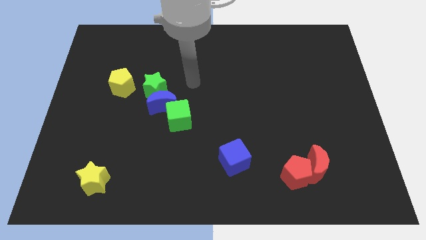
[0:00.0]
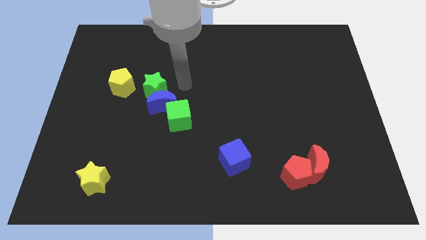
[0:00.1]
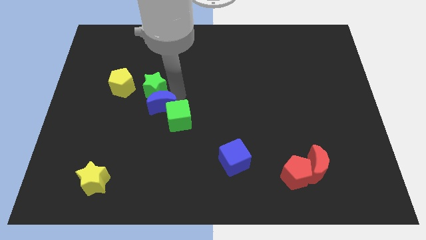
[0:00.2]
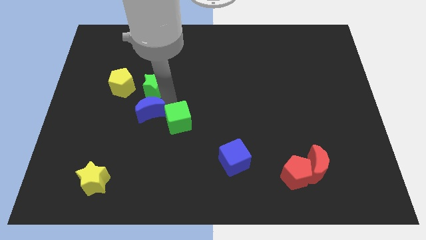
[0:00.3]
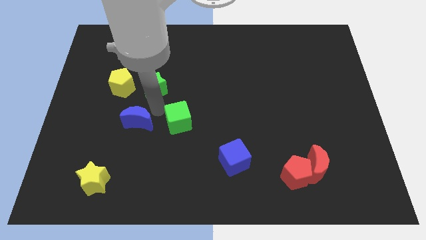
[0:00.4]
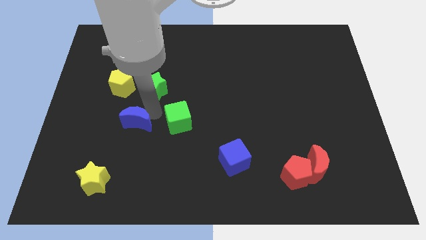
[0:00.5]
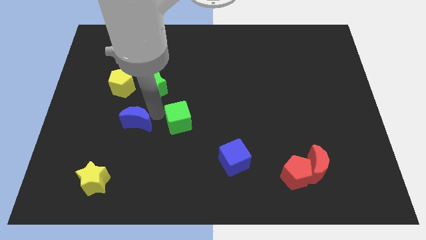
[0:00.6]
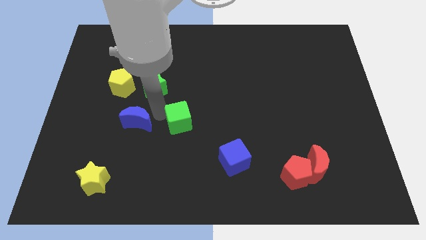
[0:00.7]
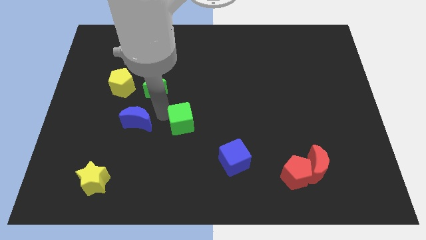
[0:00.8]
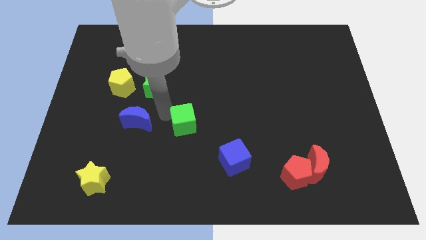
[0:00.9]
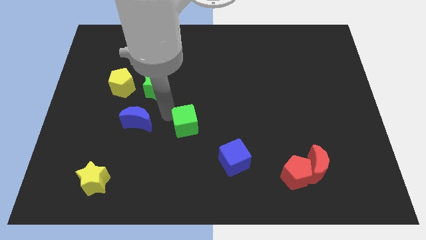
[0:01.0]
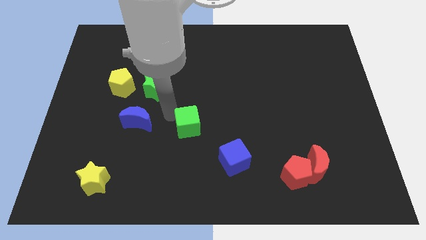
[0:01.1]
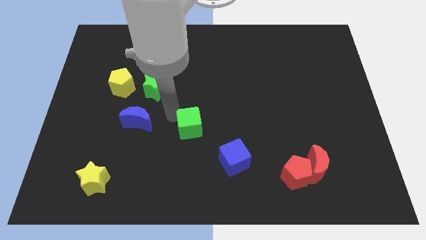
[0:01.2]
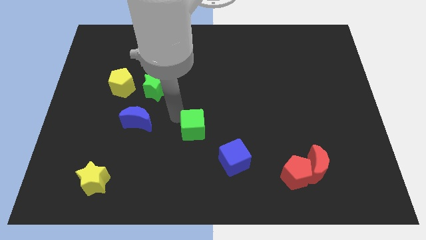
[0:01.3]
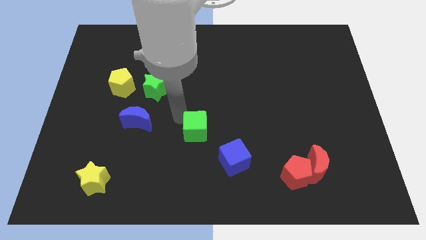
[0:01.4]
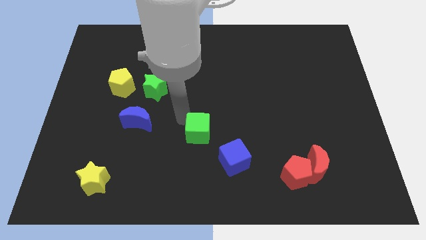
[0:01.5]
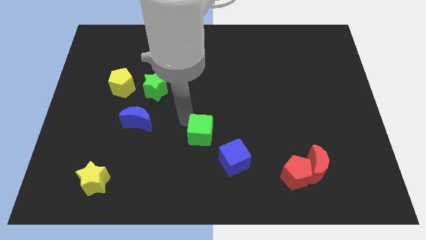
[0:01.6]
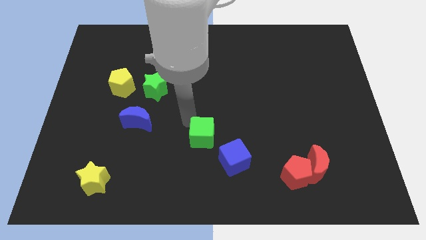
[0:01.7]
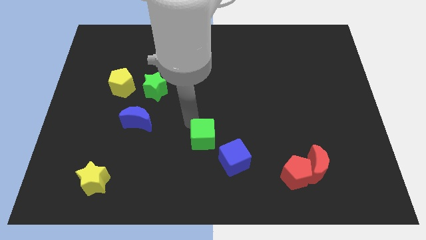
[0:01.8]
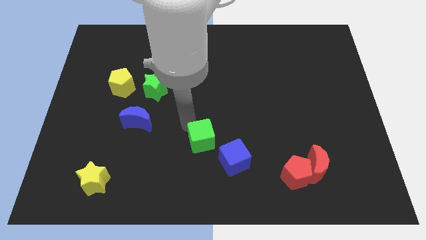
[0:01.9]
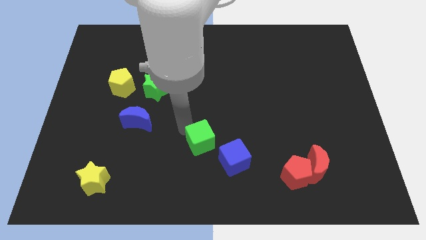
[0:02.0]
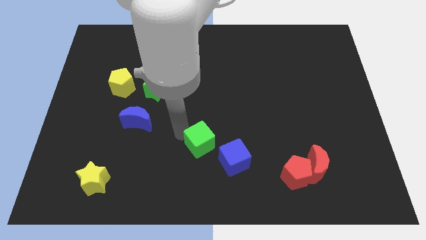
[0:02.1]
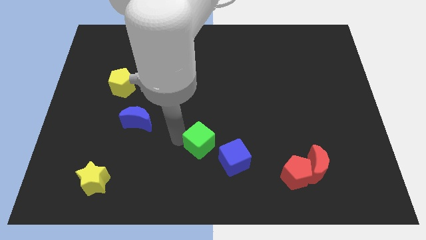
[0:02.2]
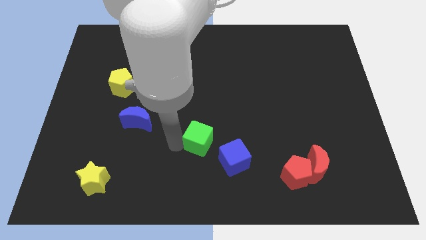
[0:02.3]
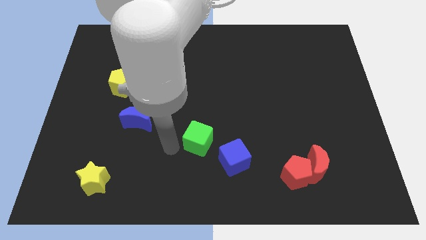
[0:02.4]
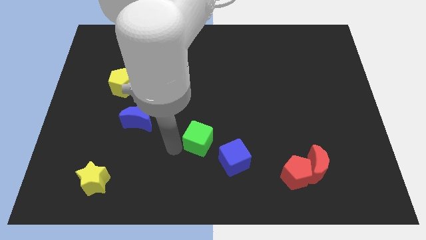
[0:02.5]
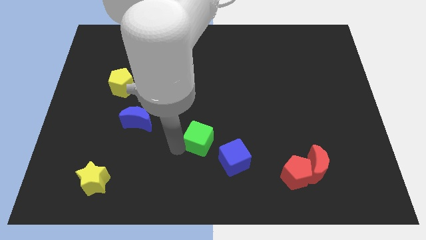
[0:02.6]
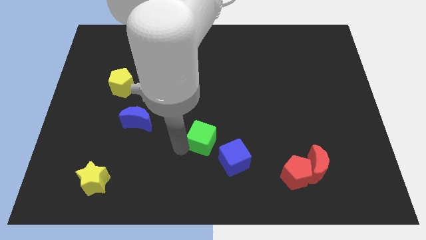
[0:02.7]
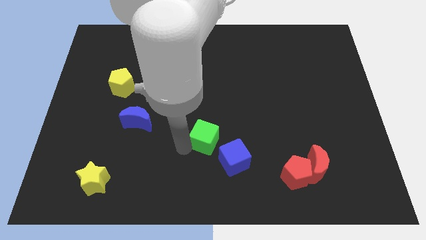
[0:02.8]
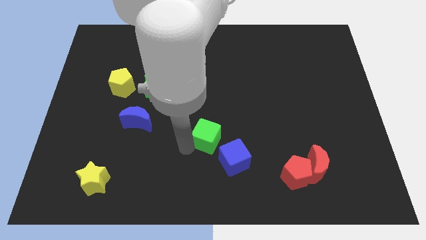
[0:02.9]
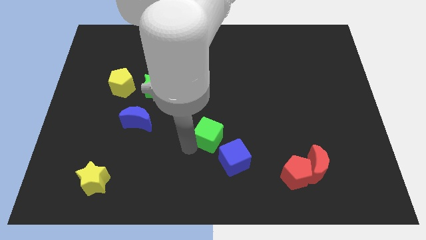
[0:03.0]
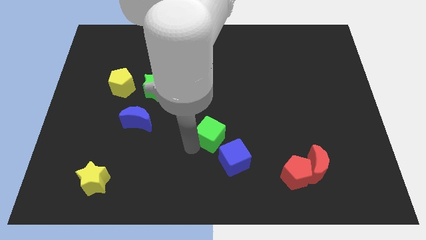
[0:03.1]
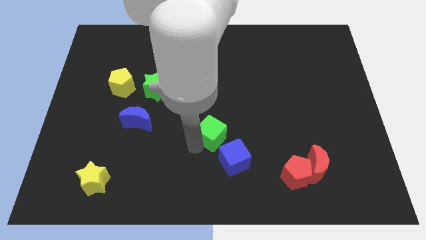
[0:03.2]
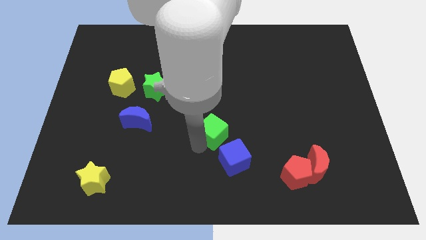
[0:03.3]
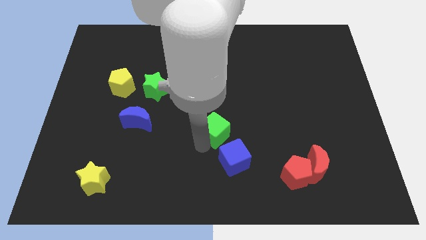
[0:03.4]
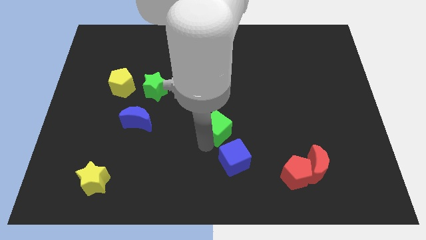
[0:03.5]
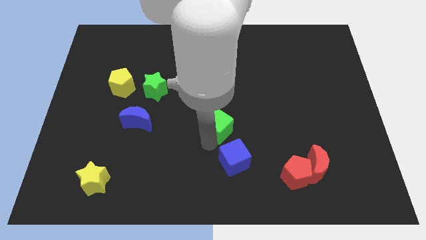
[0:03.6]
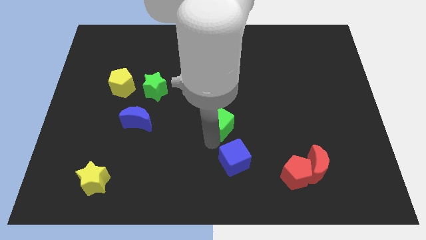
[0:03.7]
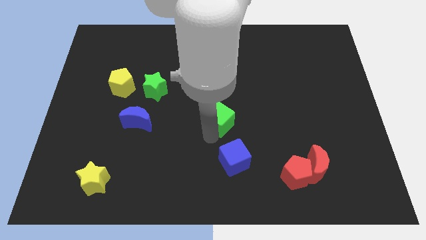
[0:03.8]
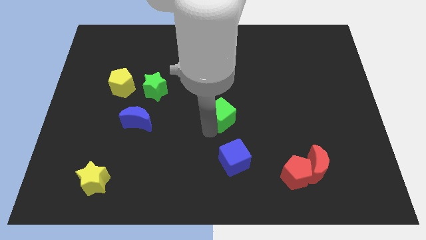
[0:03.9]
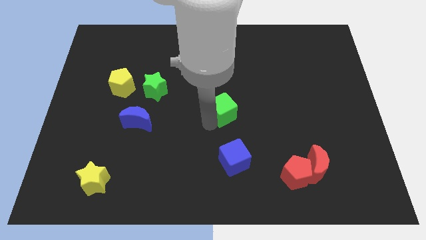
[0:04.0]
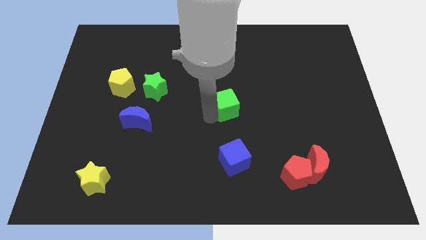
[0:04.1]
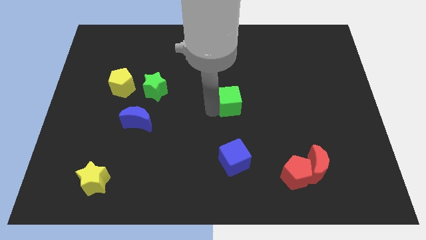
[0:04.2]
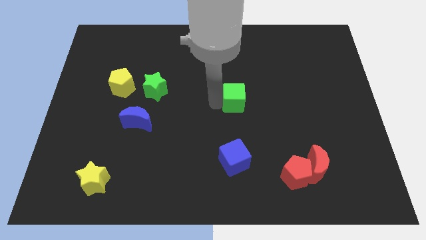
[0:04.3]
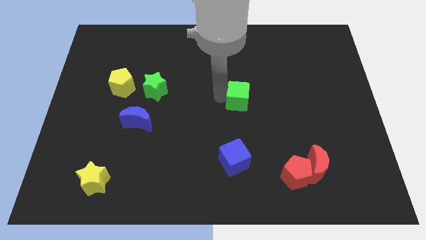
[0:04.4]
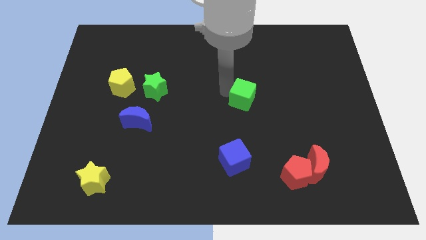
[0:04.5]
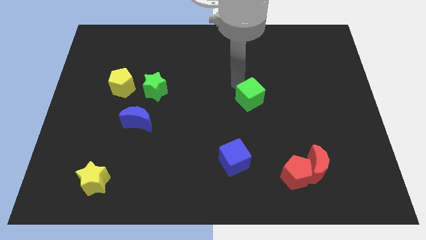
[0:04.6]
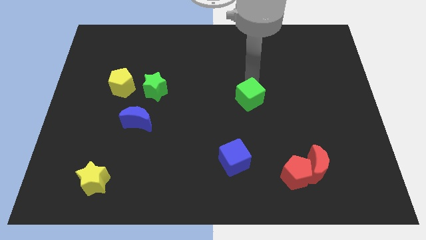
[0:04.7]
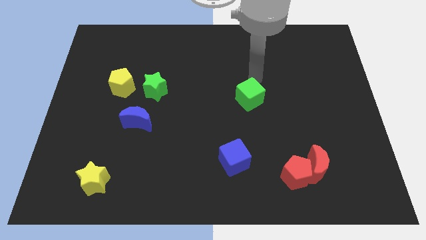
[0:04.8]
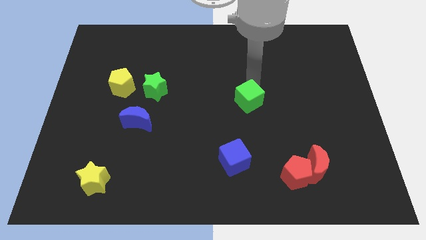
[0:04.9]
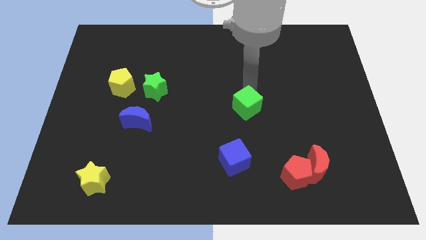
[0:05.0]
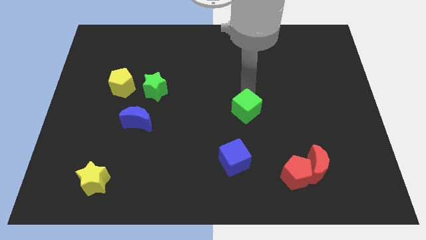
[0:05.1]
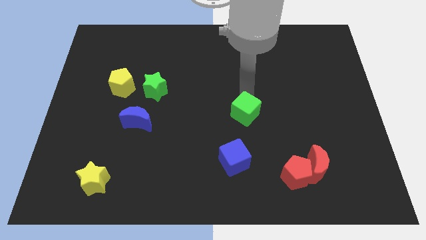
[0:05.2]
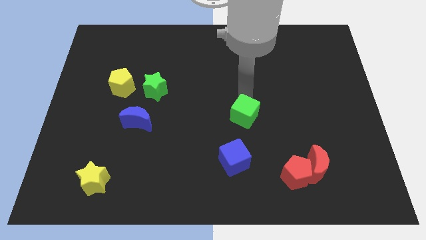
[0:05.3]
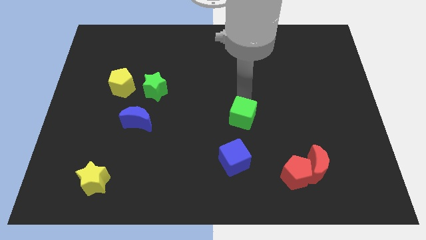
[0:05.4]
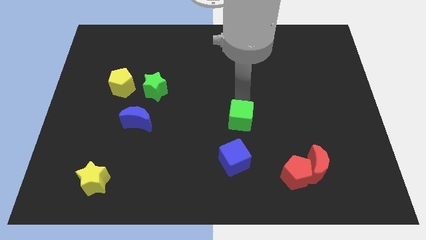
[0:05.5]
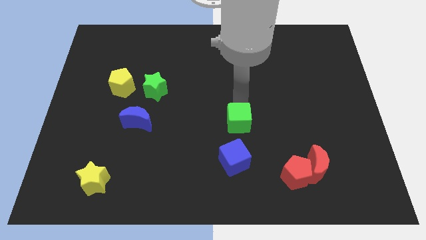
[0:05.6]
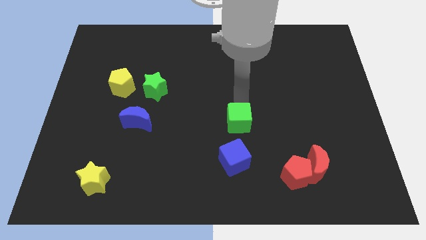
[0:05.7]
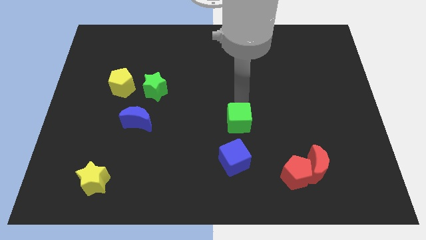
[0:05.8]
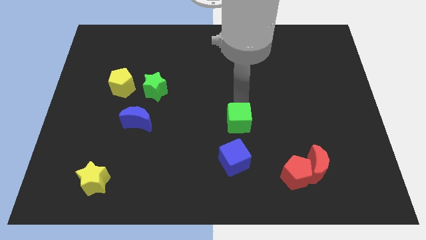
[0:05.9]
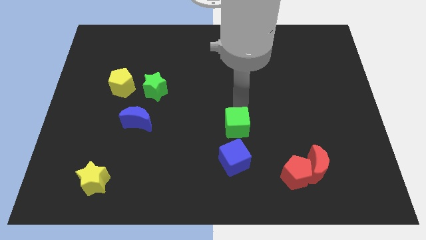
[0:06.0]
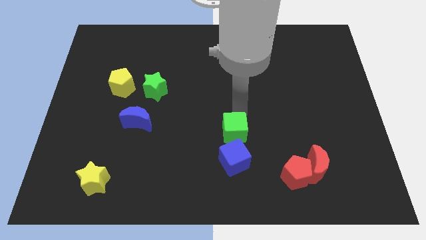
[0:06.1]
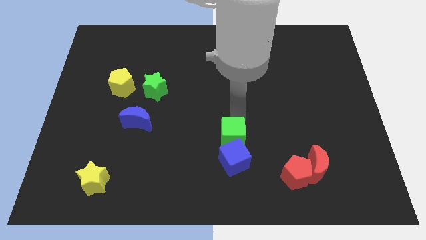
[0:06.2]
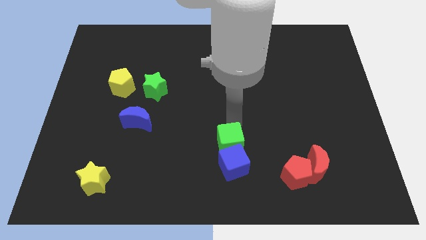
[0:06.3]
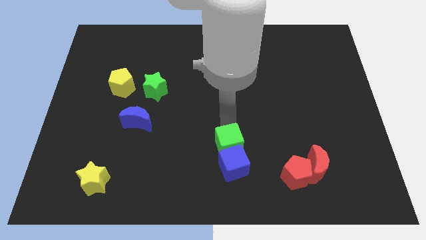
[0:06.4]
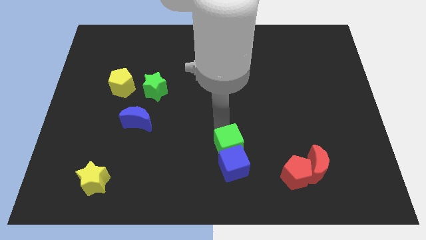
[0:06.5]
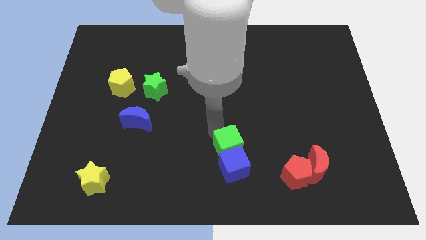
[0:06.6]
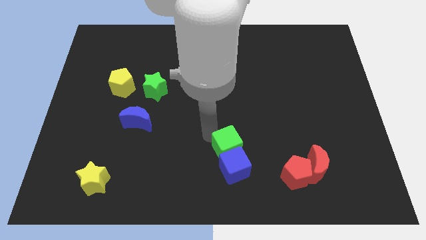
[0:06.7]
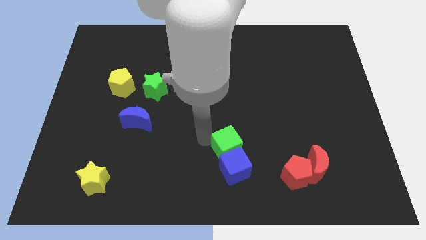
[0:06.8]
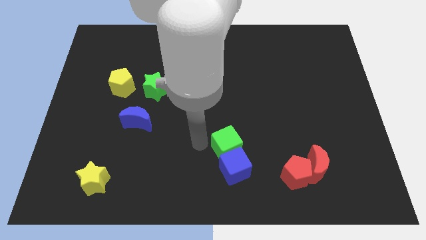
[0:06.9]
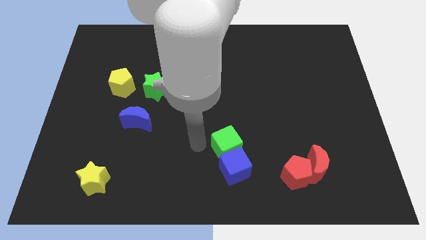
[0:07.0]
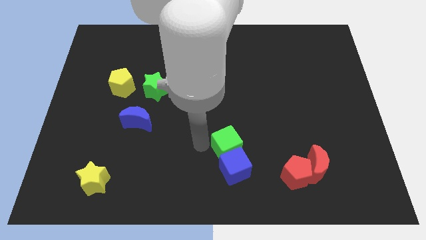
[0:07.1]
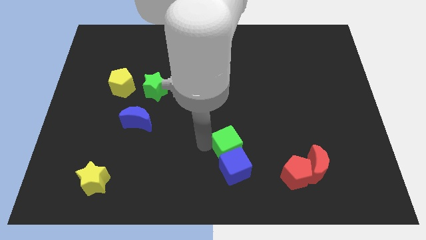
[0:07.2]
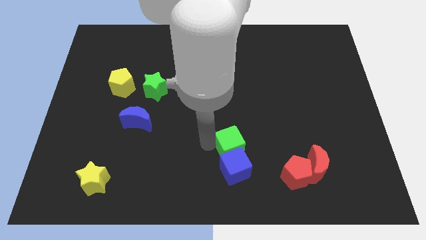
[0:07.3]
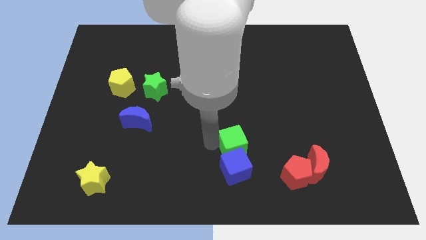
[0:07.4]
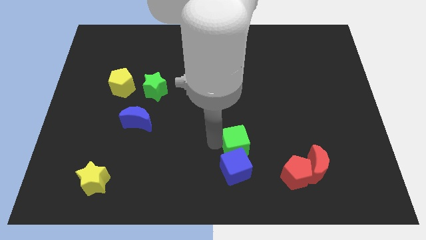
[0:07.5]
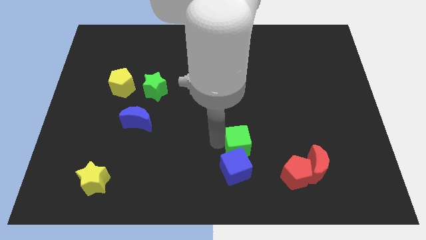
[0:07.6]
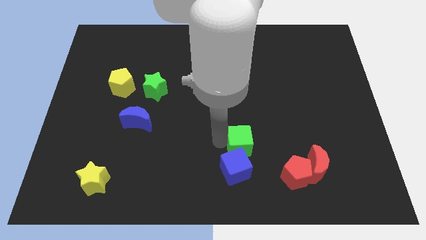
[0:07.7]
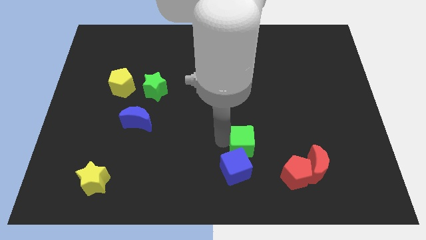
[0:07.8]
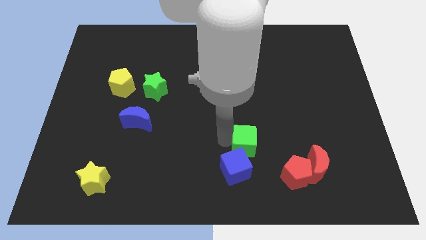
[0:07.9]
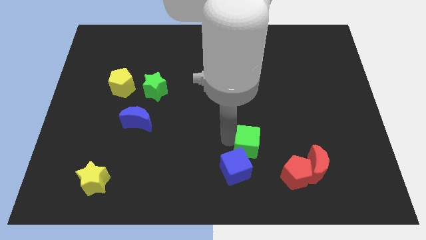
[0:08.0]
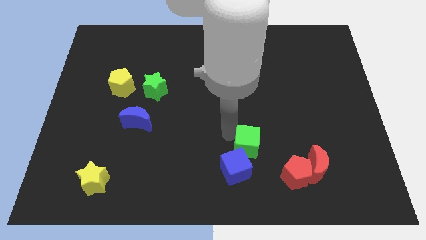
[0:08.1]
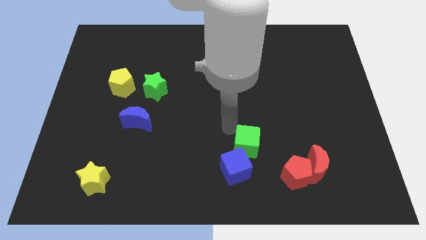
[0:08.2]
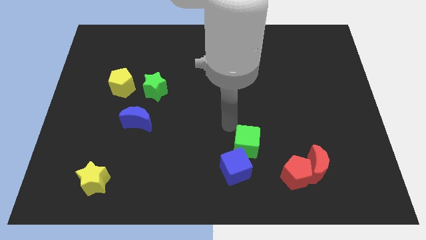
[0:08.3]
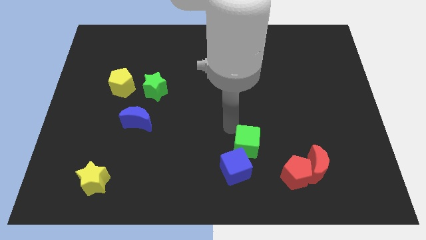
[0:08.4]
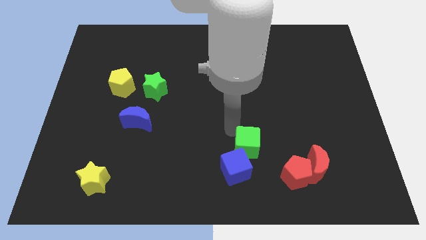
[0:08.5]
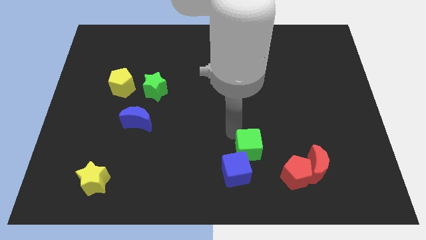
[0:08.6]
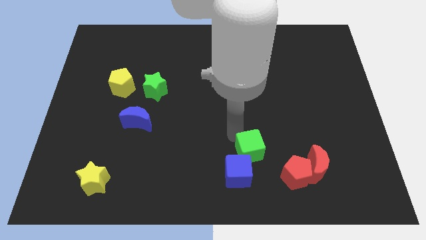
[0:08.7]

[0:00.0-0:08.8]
move the green cube just left of the red moon
